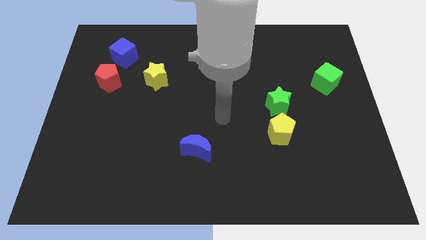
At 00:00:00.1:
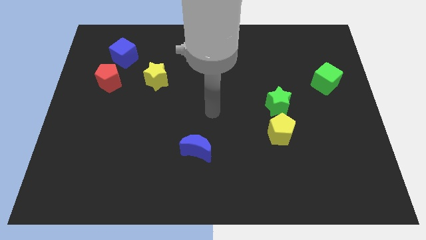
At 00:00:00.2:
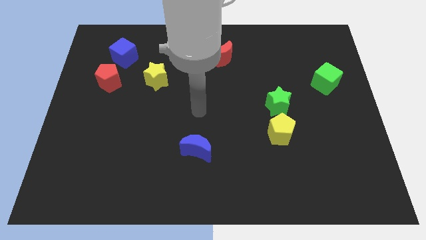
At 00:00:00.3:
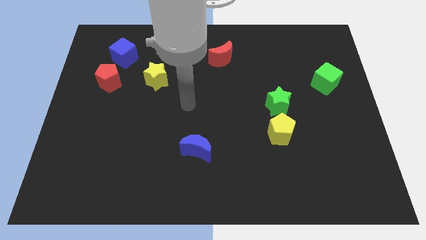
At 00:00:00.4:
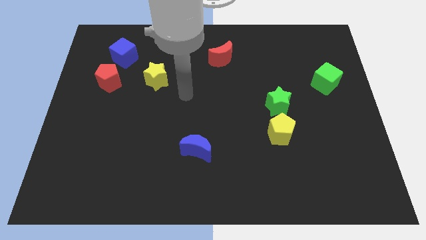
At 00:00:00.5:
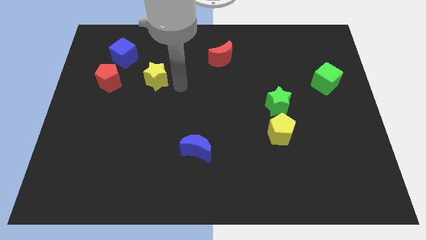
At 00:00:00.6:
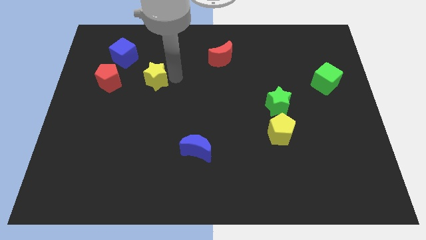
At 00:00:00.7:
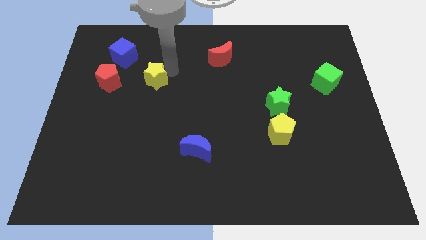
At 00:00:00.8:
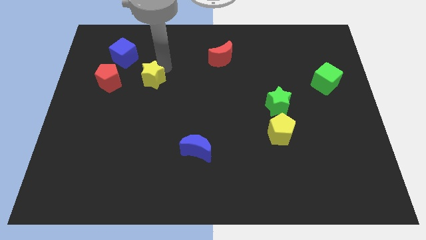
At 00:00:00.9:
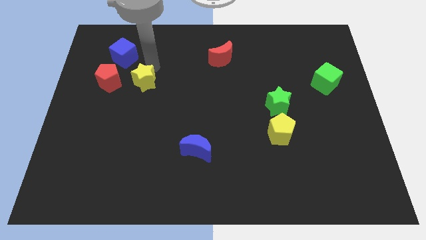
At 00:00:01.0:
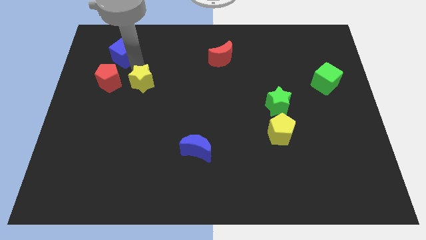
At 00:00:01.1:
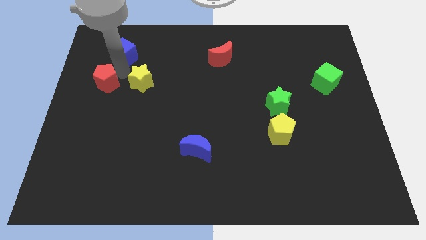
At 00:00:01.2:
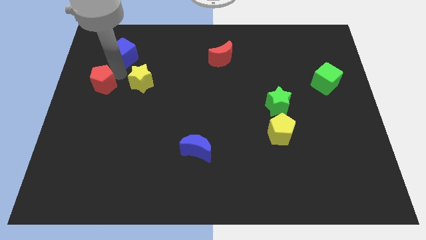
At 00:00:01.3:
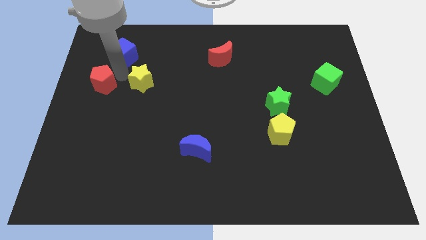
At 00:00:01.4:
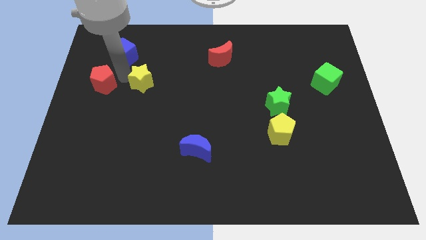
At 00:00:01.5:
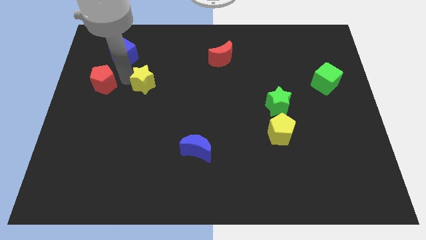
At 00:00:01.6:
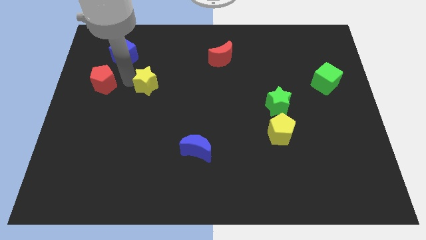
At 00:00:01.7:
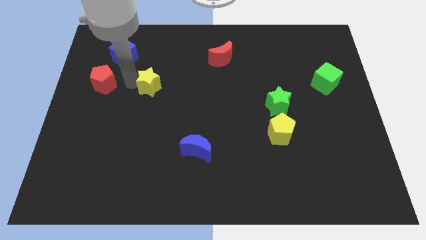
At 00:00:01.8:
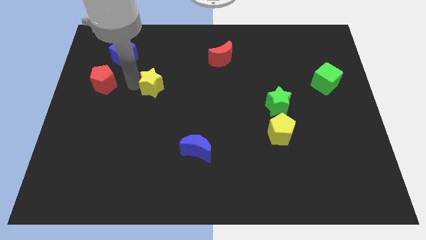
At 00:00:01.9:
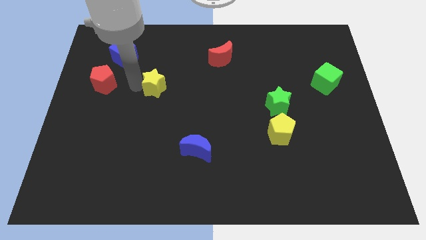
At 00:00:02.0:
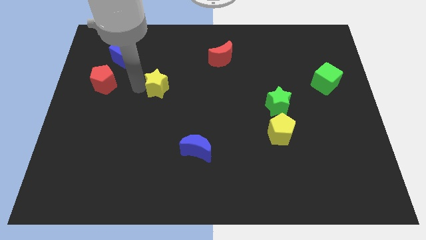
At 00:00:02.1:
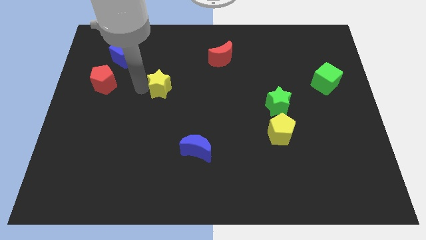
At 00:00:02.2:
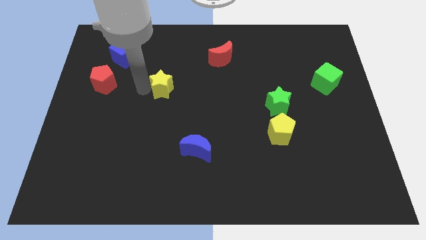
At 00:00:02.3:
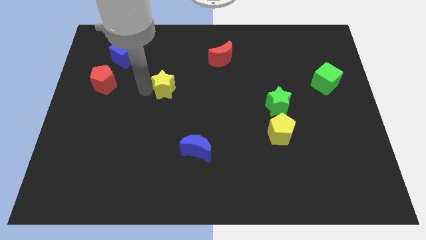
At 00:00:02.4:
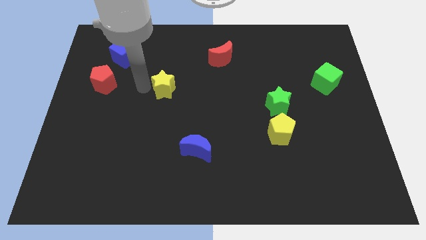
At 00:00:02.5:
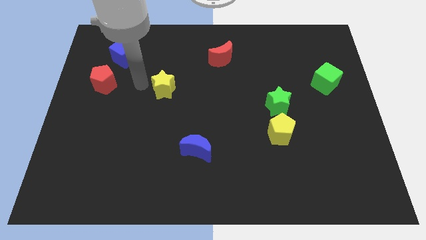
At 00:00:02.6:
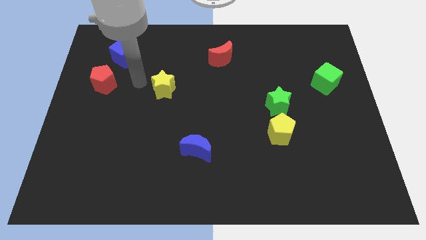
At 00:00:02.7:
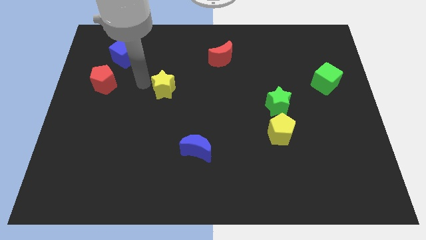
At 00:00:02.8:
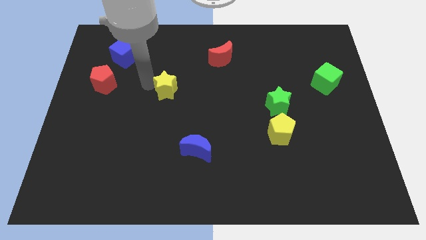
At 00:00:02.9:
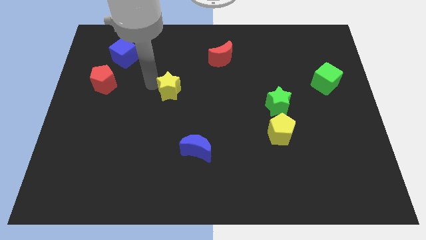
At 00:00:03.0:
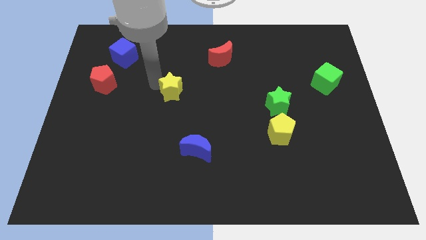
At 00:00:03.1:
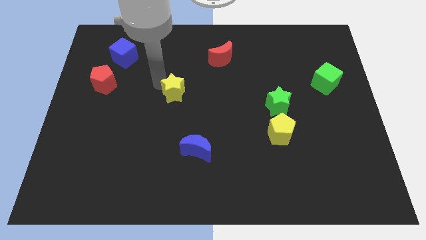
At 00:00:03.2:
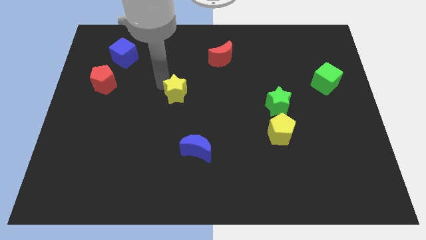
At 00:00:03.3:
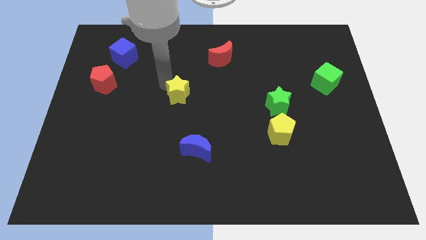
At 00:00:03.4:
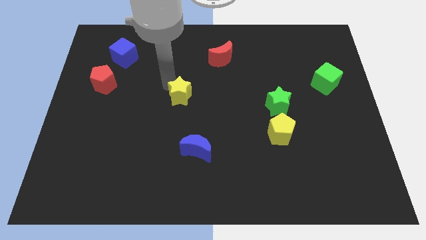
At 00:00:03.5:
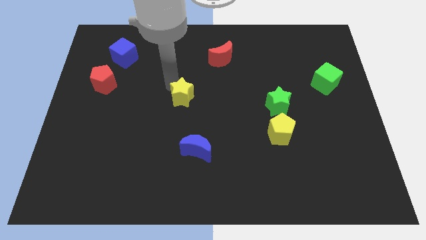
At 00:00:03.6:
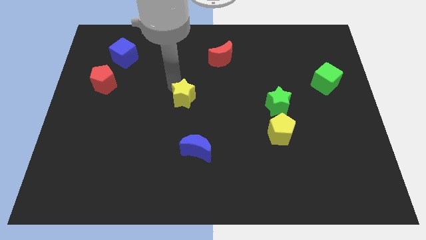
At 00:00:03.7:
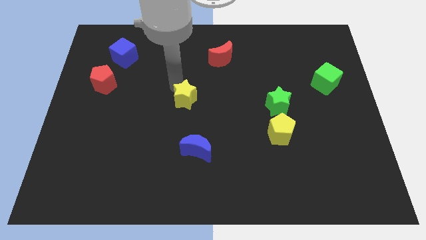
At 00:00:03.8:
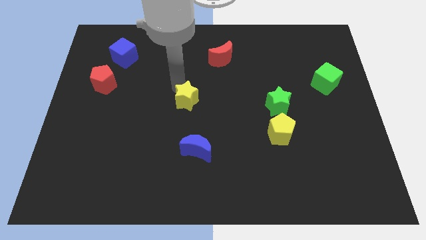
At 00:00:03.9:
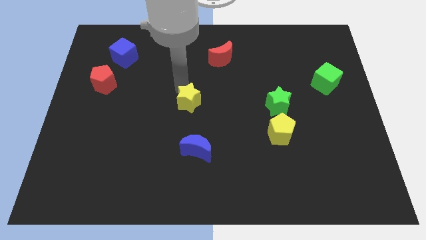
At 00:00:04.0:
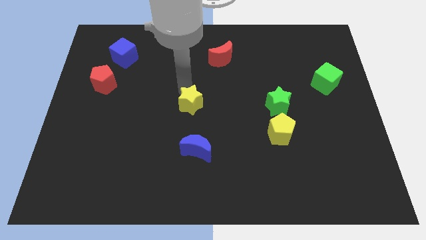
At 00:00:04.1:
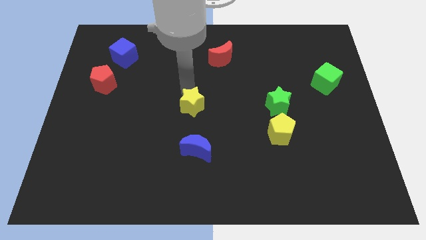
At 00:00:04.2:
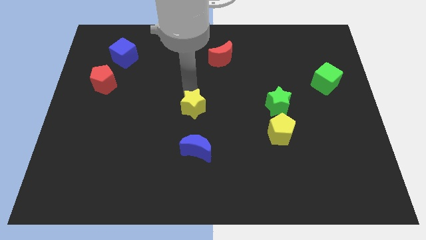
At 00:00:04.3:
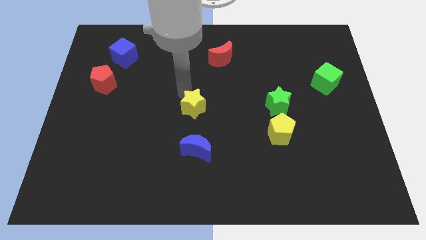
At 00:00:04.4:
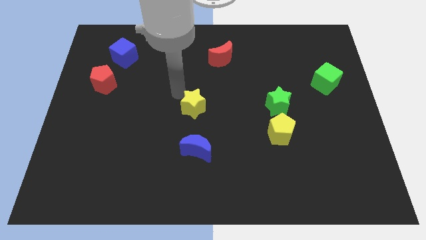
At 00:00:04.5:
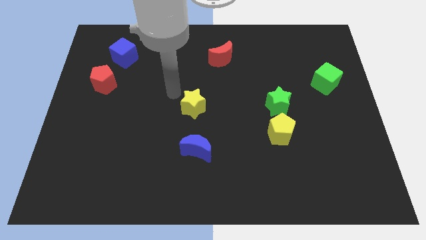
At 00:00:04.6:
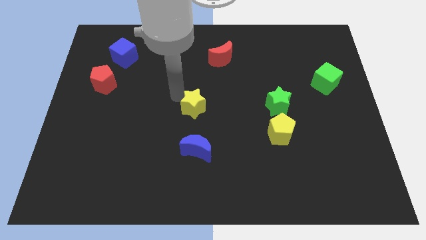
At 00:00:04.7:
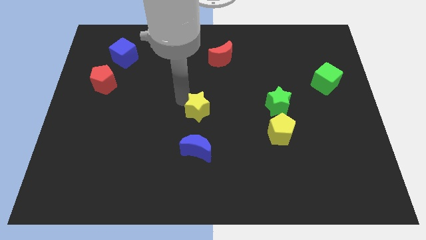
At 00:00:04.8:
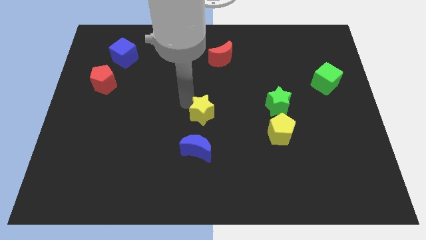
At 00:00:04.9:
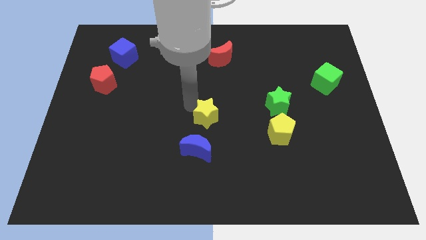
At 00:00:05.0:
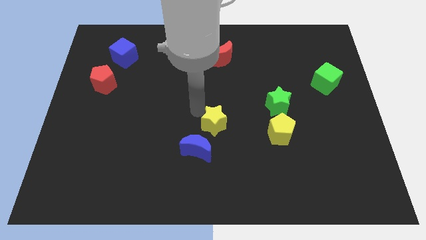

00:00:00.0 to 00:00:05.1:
put the yellow star to the left side of the yellow pentagon

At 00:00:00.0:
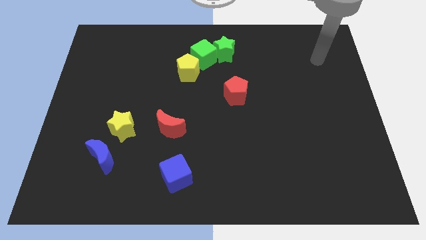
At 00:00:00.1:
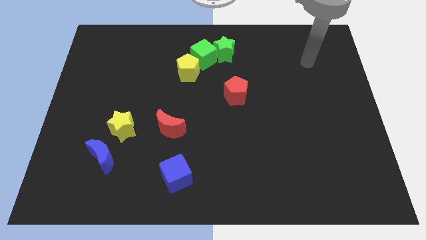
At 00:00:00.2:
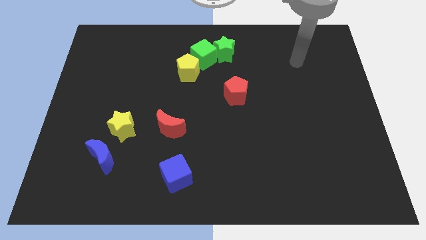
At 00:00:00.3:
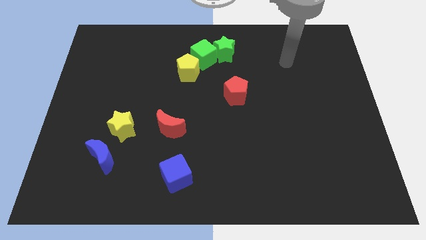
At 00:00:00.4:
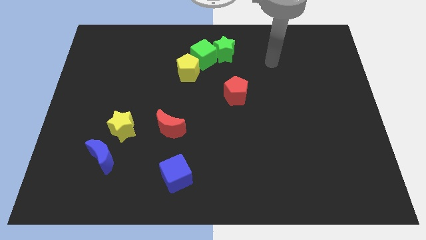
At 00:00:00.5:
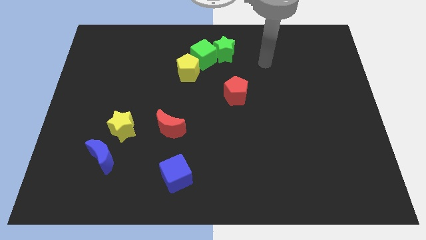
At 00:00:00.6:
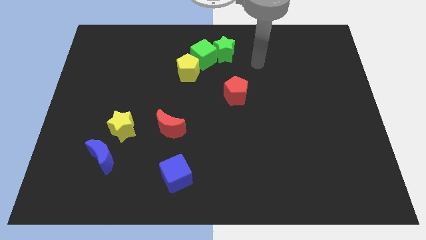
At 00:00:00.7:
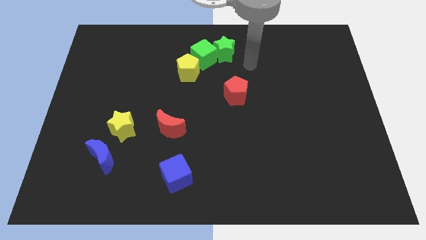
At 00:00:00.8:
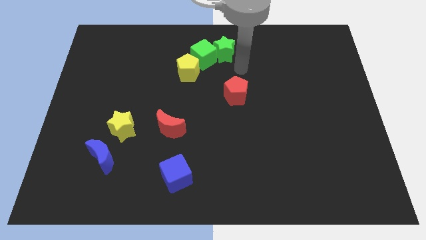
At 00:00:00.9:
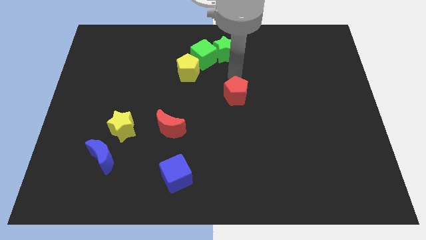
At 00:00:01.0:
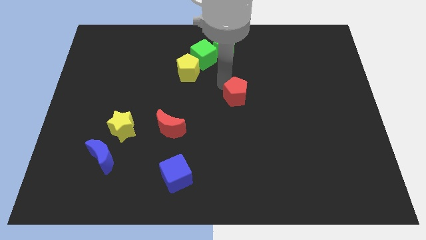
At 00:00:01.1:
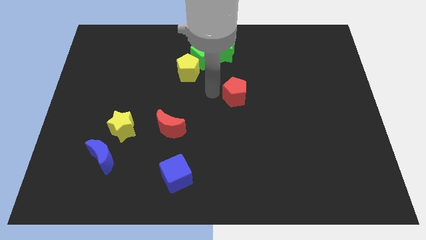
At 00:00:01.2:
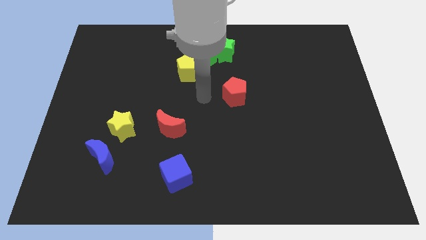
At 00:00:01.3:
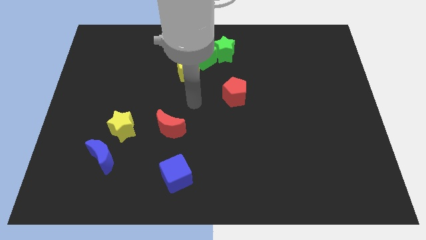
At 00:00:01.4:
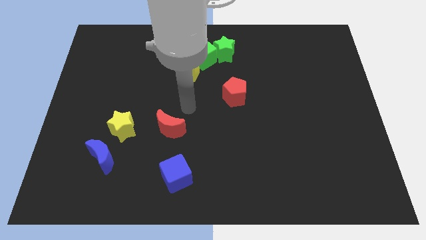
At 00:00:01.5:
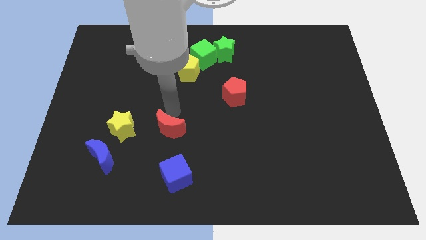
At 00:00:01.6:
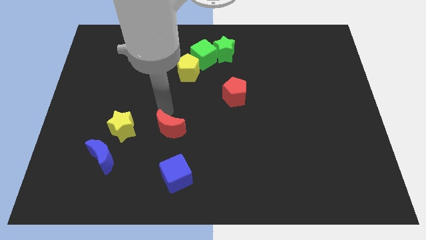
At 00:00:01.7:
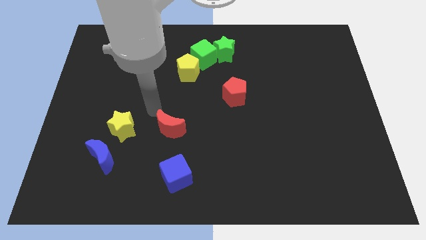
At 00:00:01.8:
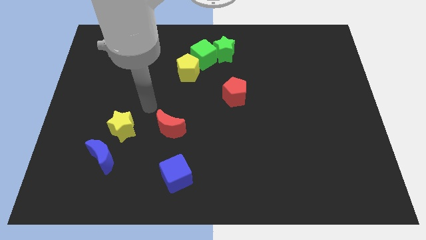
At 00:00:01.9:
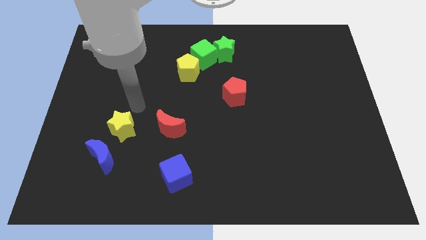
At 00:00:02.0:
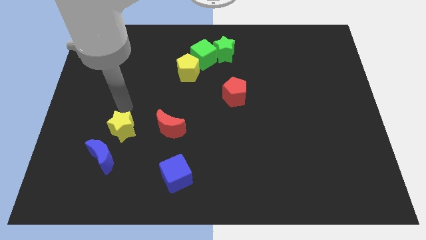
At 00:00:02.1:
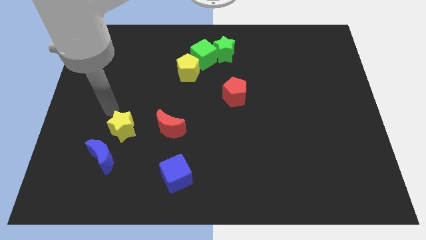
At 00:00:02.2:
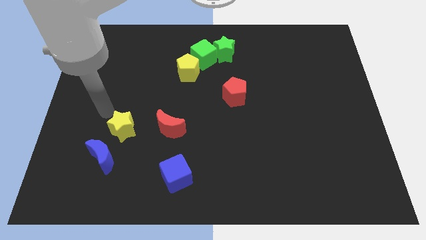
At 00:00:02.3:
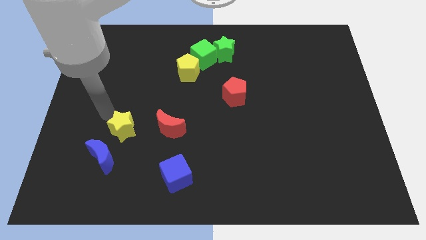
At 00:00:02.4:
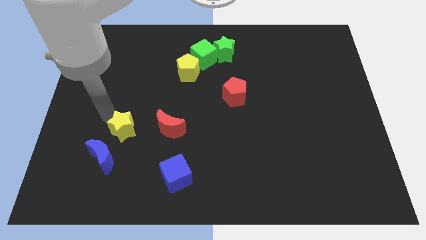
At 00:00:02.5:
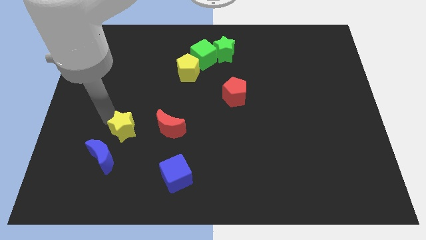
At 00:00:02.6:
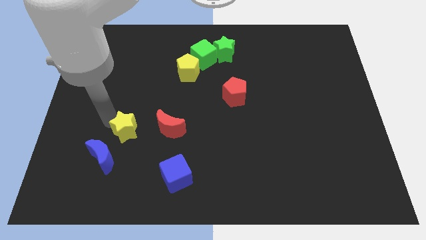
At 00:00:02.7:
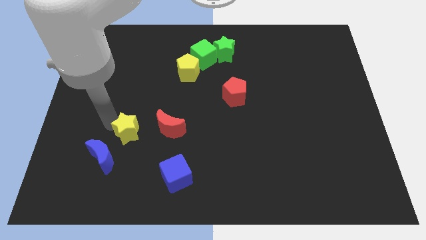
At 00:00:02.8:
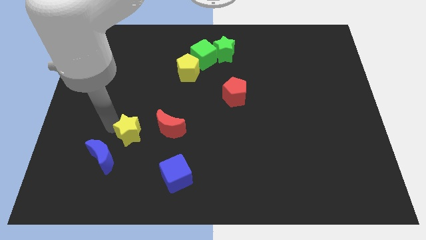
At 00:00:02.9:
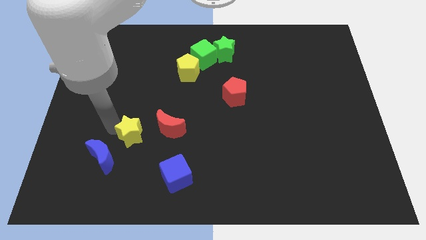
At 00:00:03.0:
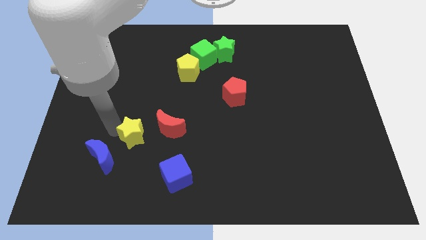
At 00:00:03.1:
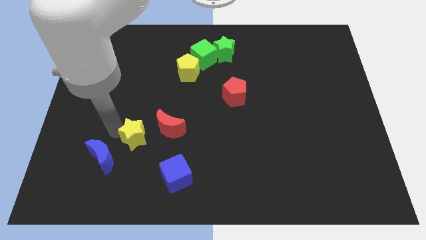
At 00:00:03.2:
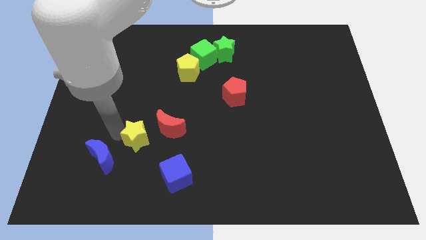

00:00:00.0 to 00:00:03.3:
move the yellow star just right of the blue moon
